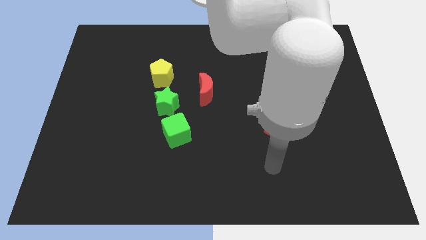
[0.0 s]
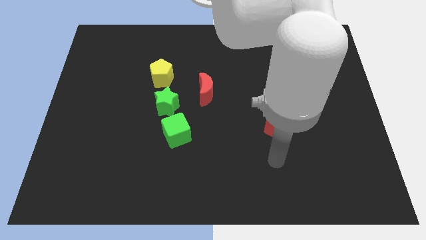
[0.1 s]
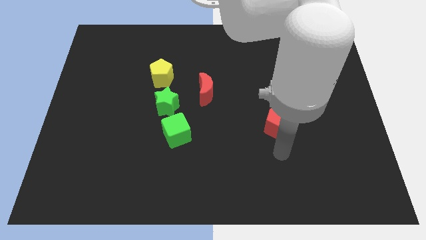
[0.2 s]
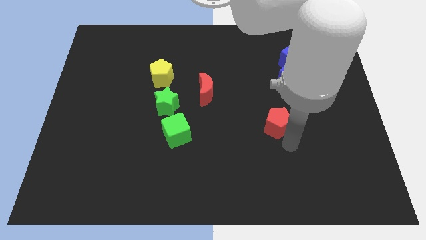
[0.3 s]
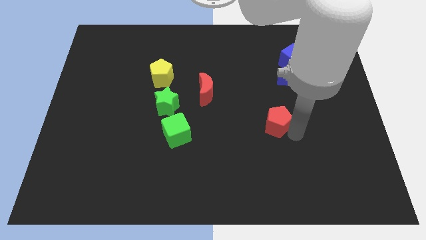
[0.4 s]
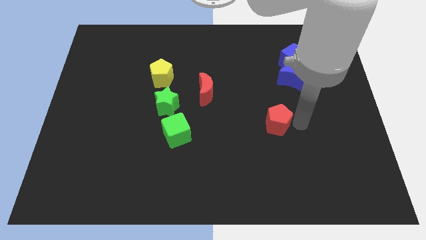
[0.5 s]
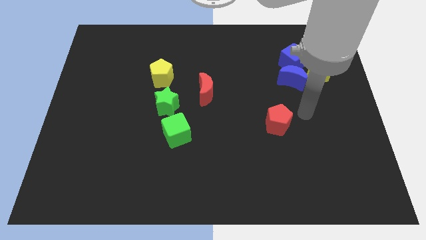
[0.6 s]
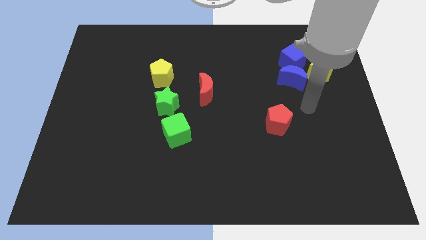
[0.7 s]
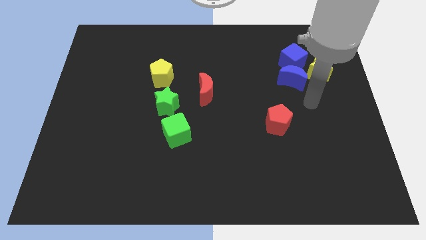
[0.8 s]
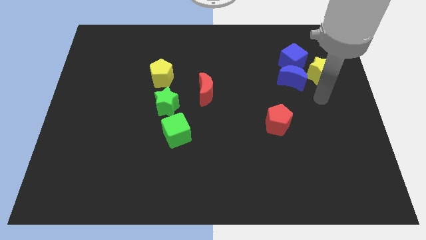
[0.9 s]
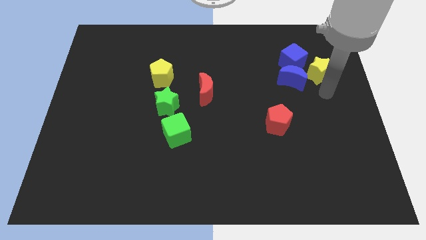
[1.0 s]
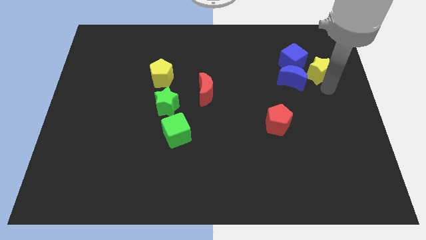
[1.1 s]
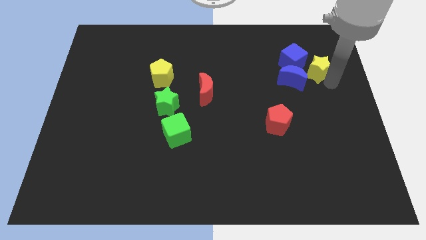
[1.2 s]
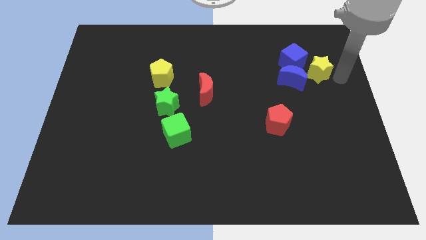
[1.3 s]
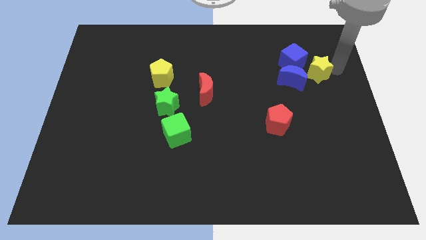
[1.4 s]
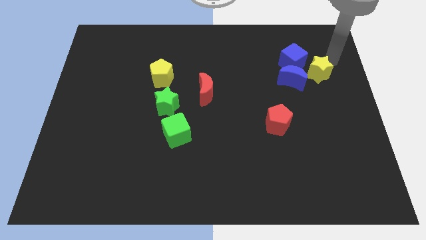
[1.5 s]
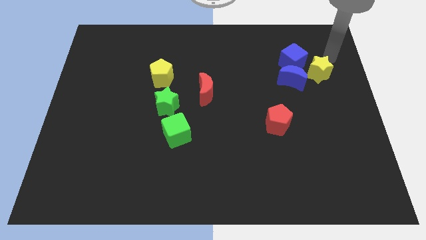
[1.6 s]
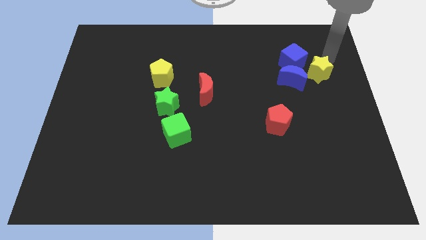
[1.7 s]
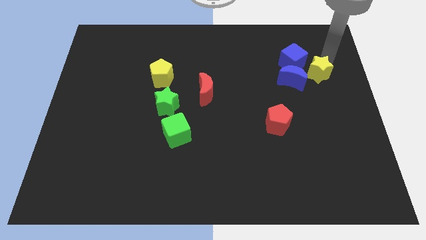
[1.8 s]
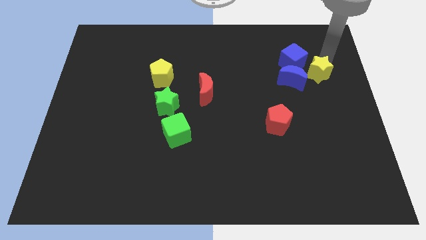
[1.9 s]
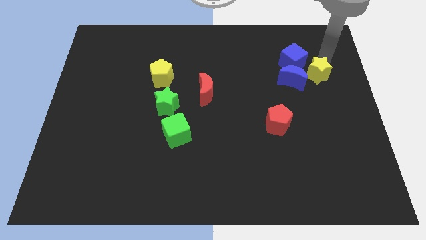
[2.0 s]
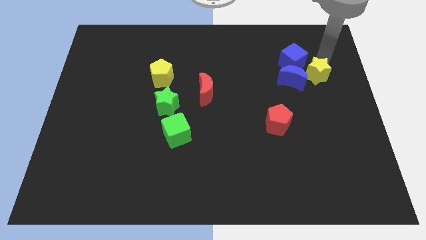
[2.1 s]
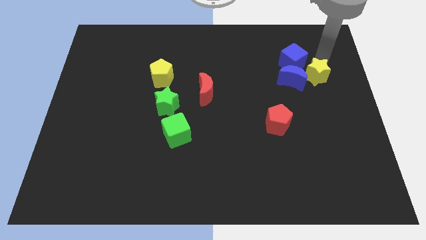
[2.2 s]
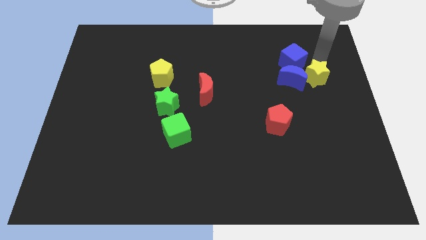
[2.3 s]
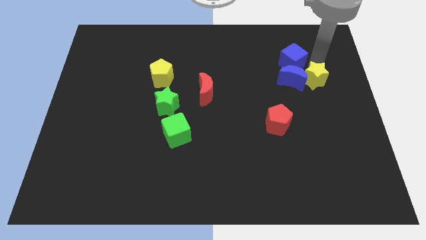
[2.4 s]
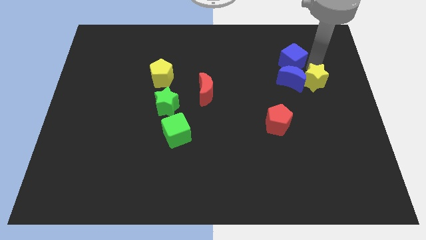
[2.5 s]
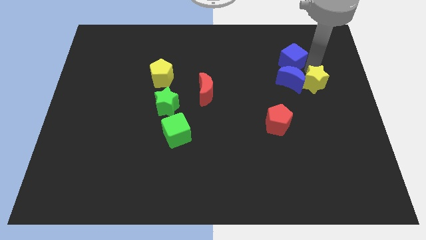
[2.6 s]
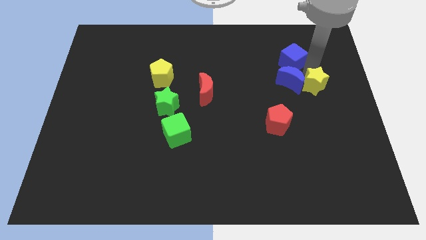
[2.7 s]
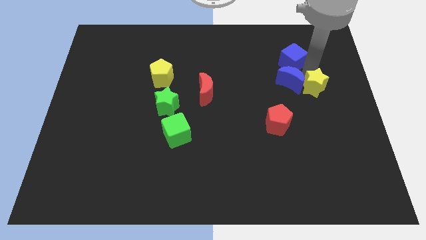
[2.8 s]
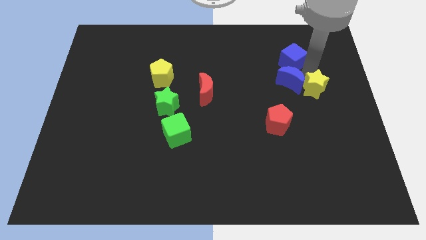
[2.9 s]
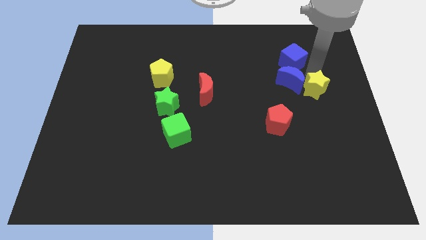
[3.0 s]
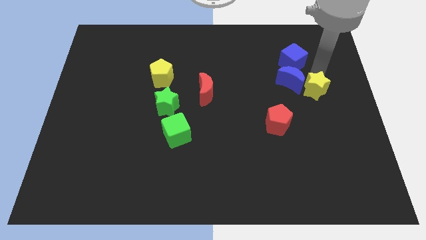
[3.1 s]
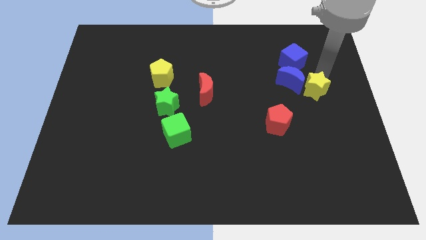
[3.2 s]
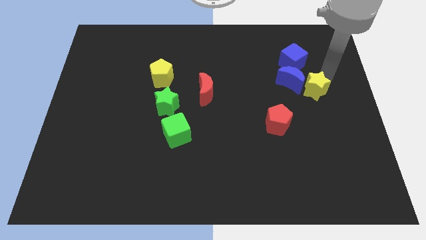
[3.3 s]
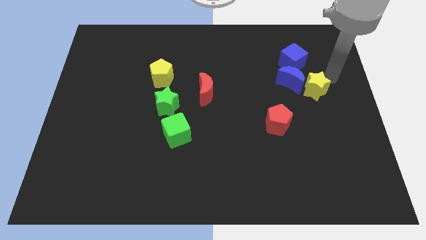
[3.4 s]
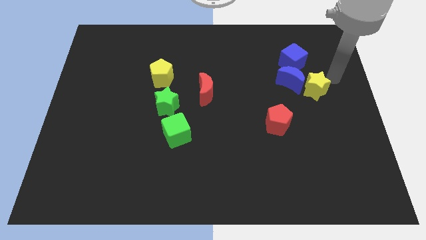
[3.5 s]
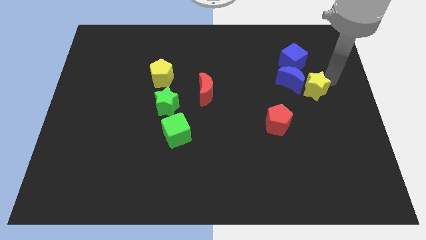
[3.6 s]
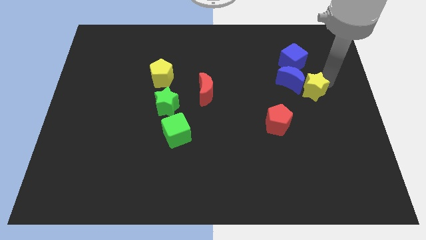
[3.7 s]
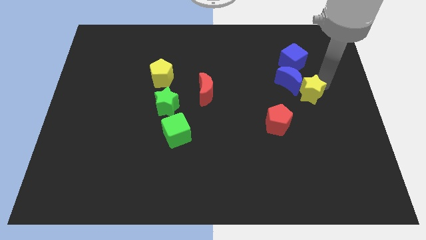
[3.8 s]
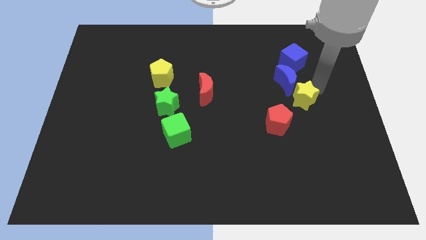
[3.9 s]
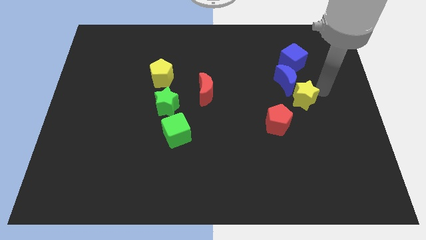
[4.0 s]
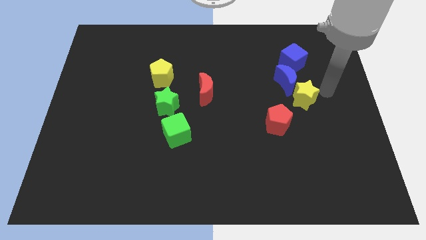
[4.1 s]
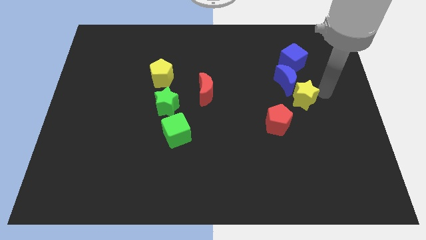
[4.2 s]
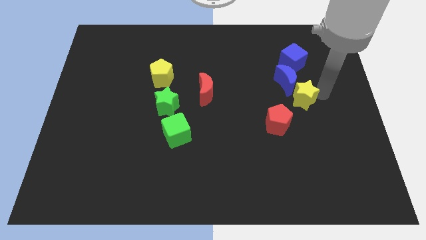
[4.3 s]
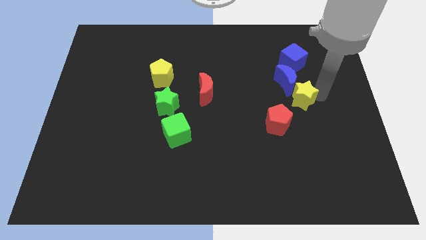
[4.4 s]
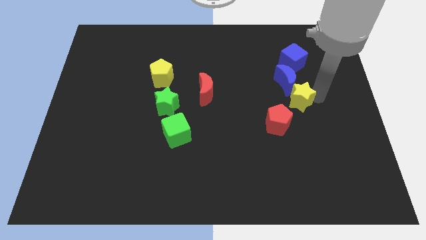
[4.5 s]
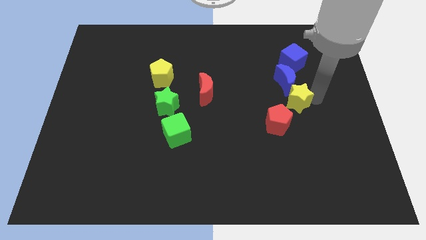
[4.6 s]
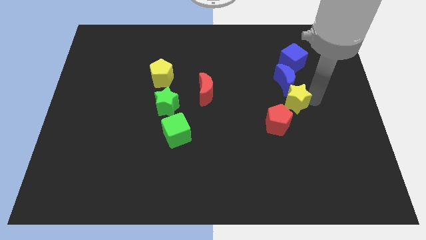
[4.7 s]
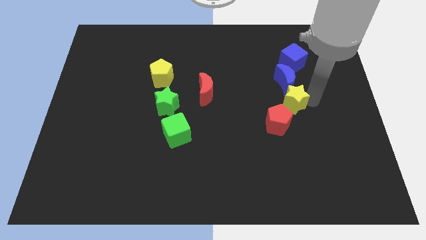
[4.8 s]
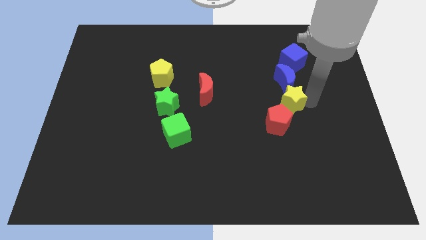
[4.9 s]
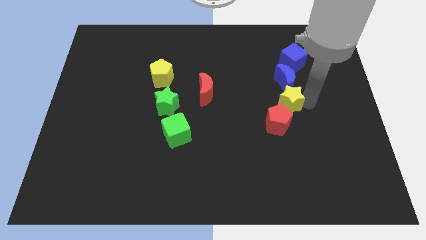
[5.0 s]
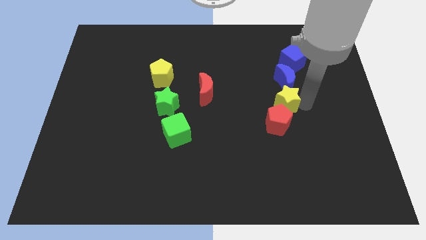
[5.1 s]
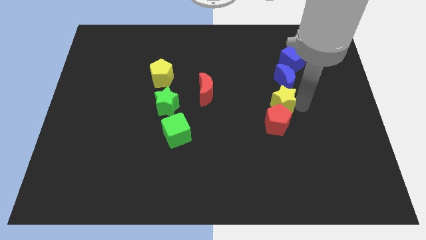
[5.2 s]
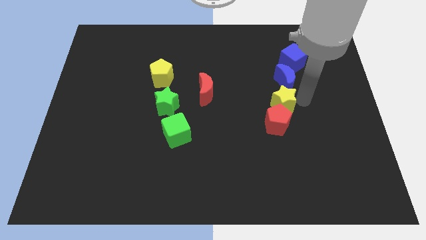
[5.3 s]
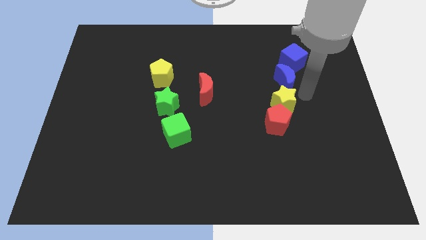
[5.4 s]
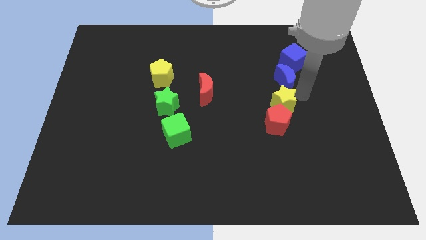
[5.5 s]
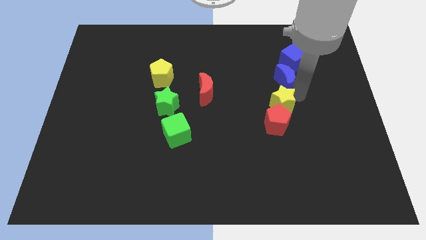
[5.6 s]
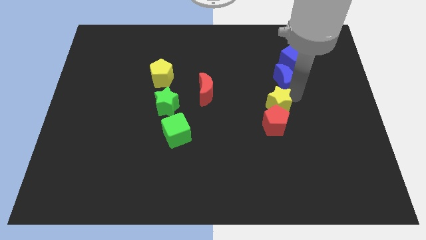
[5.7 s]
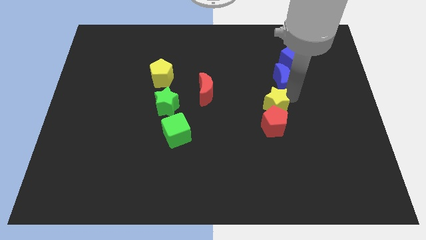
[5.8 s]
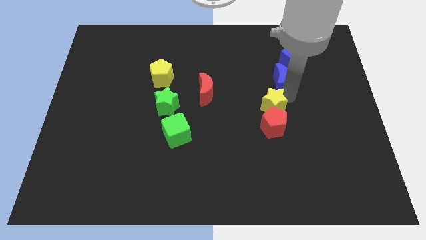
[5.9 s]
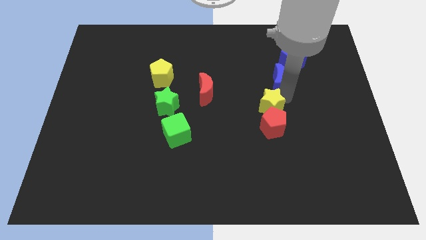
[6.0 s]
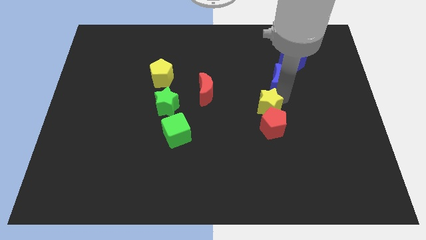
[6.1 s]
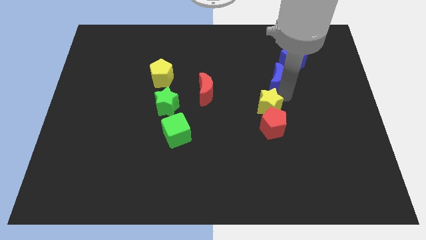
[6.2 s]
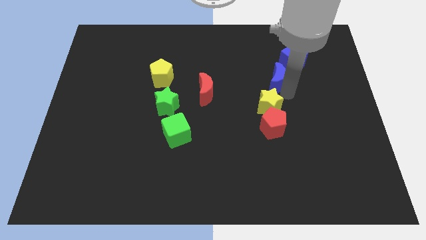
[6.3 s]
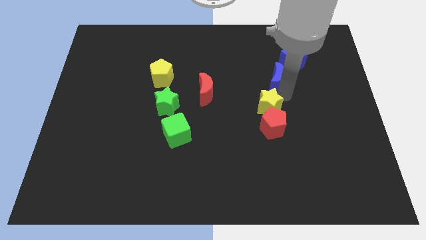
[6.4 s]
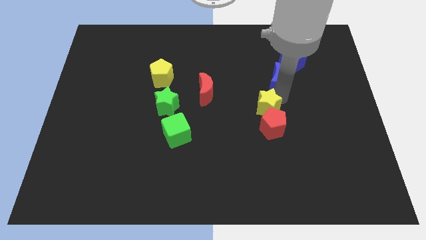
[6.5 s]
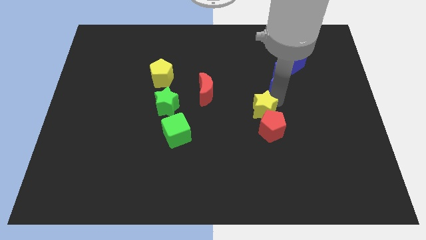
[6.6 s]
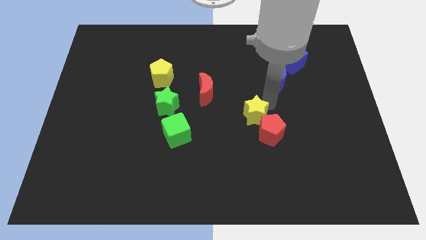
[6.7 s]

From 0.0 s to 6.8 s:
slide the yellow star down and to the left diagonally

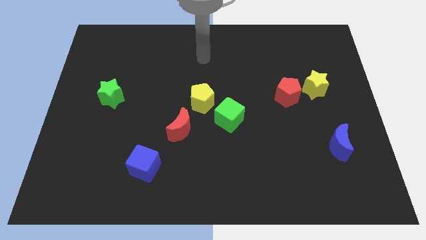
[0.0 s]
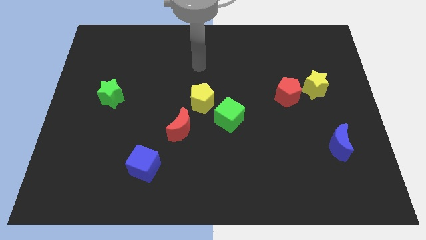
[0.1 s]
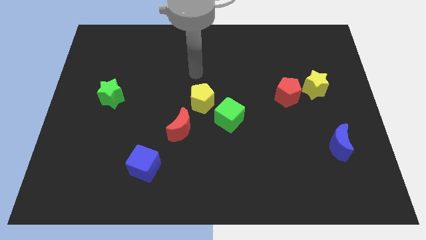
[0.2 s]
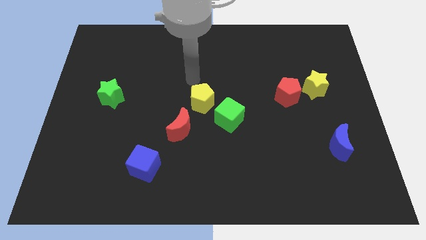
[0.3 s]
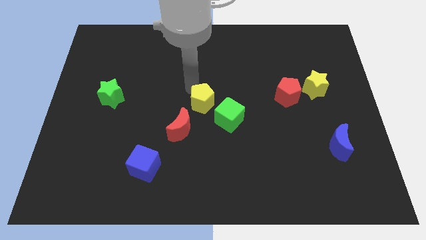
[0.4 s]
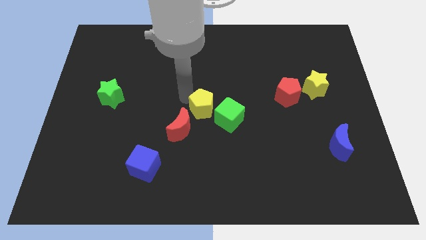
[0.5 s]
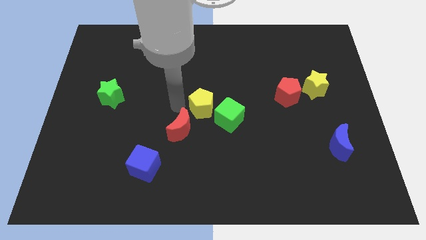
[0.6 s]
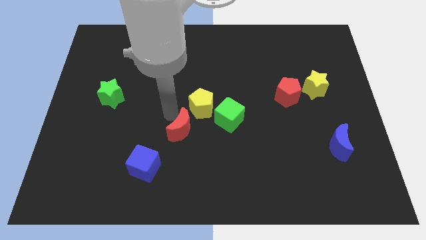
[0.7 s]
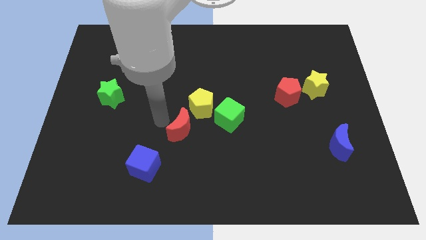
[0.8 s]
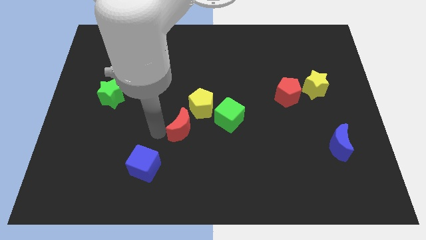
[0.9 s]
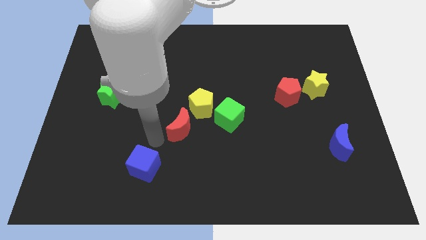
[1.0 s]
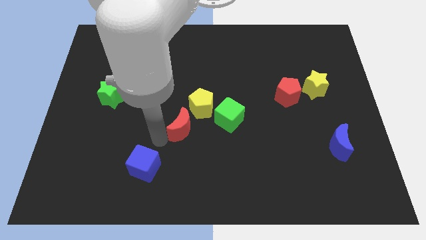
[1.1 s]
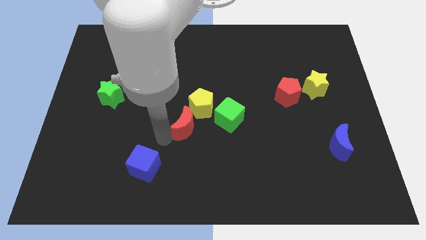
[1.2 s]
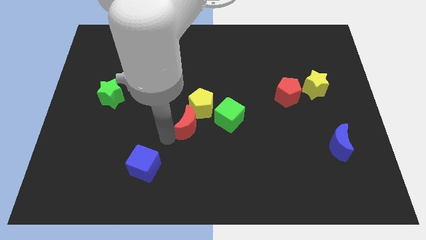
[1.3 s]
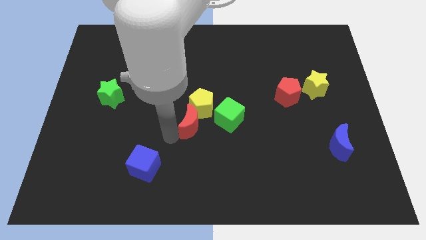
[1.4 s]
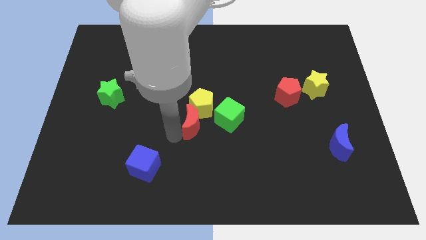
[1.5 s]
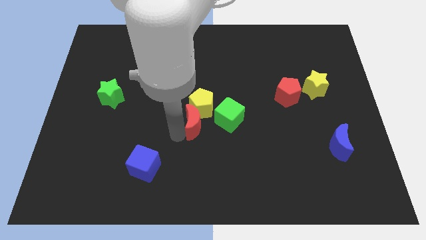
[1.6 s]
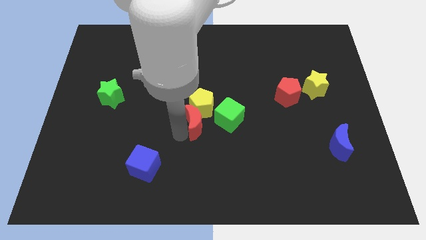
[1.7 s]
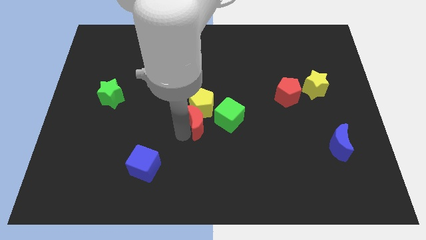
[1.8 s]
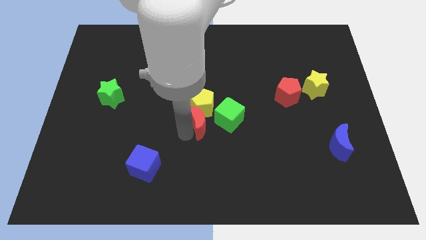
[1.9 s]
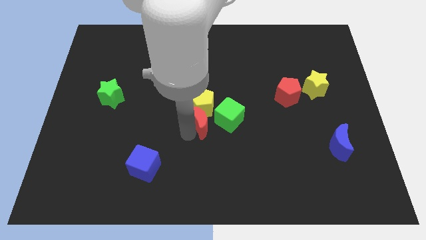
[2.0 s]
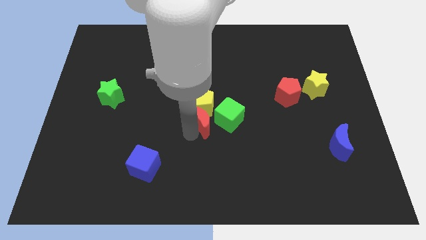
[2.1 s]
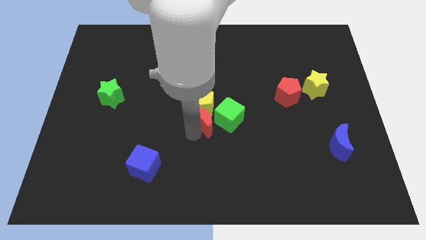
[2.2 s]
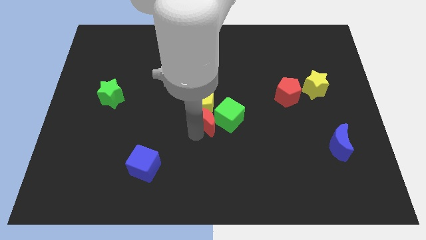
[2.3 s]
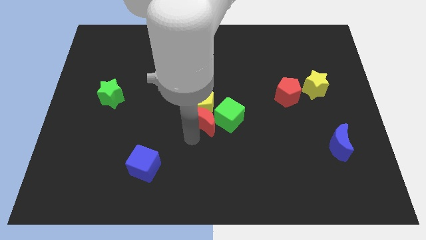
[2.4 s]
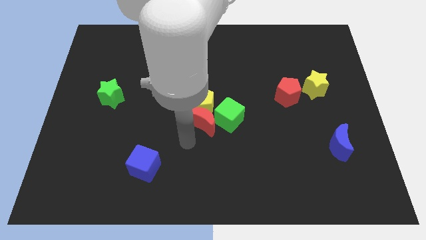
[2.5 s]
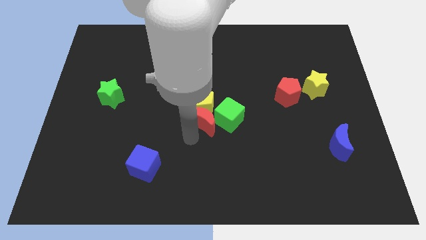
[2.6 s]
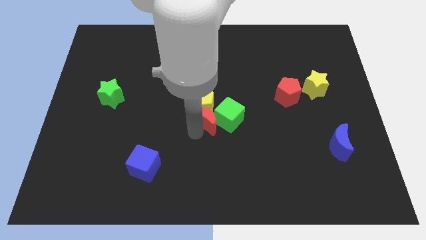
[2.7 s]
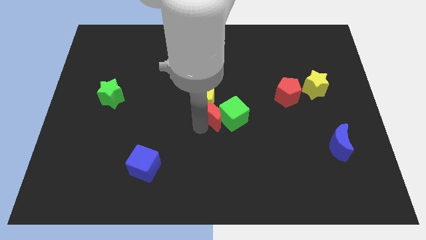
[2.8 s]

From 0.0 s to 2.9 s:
push the red moon up and then to the right somewhat
